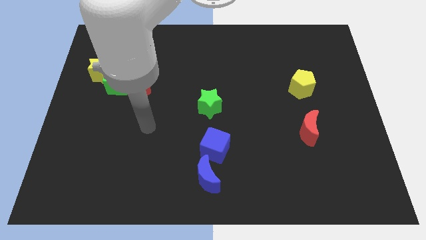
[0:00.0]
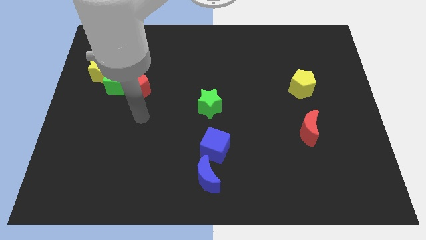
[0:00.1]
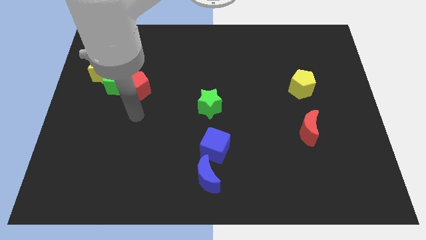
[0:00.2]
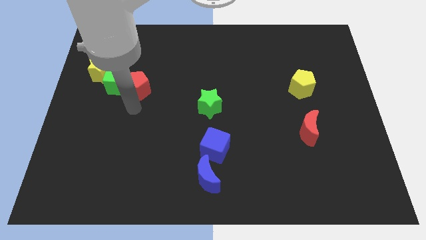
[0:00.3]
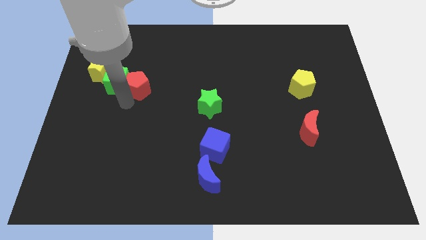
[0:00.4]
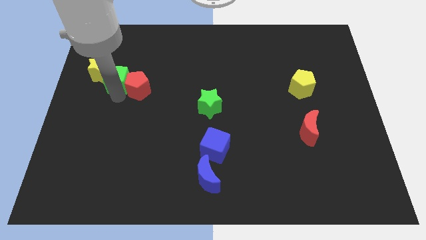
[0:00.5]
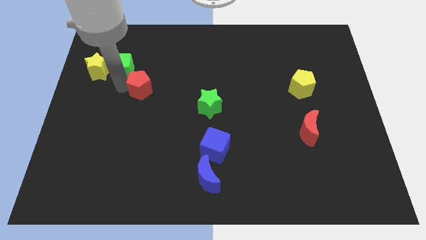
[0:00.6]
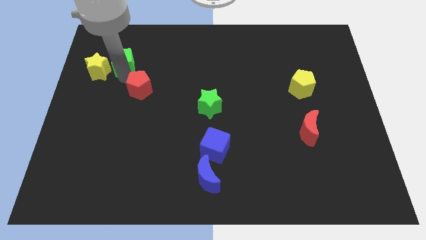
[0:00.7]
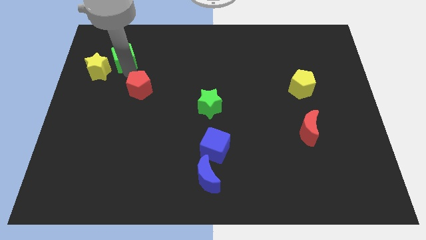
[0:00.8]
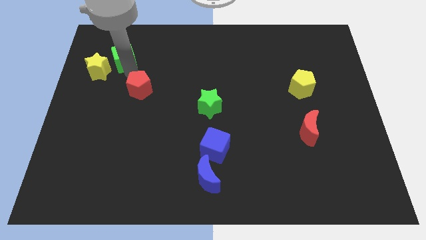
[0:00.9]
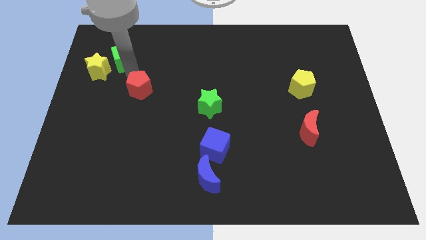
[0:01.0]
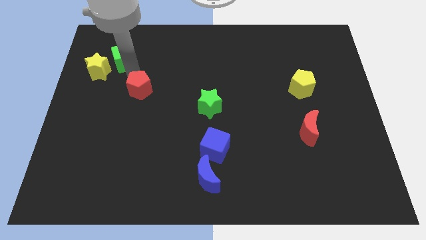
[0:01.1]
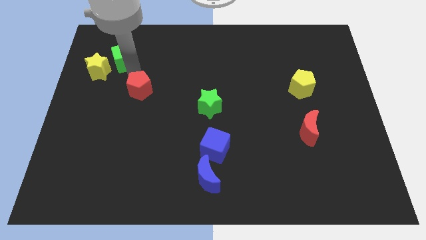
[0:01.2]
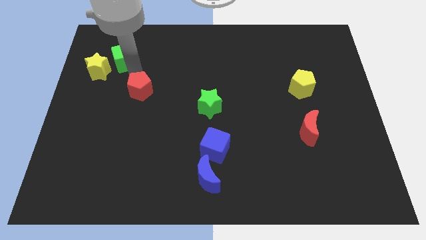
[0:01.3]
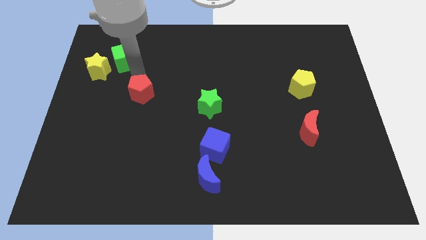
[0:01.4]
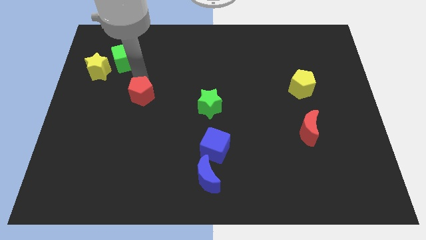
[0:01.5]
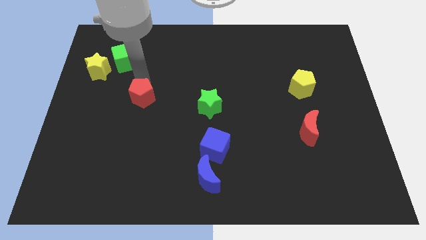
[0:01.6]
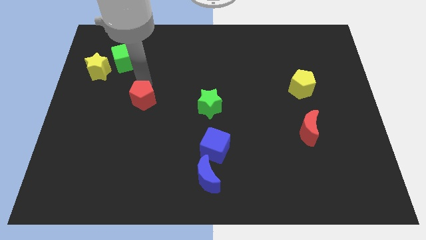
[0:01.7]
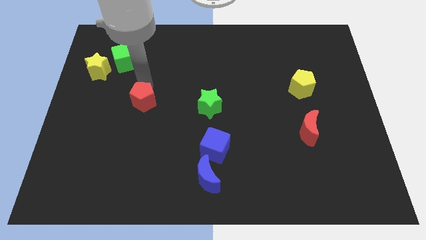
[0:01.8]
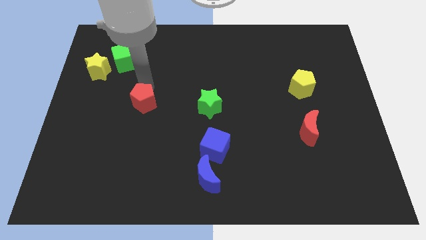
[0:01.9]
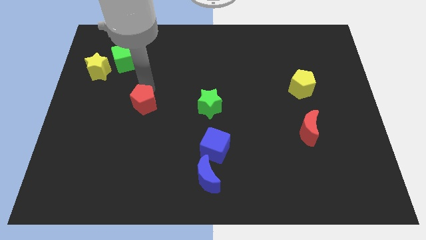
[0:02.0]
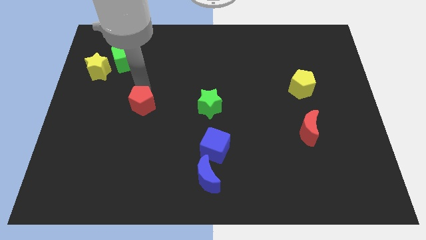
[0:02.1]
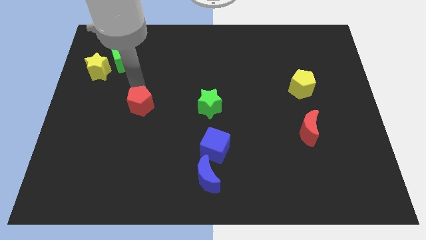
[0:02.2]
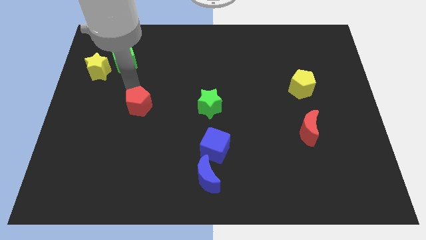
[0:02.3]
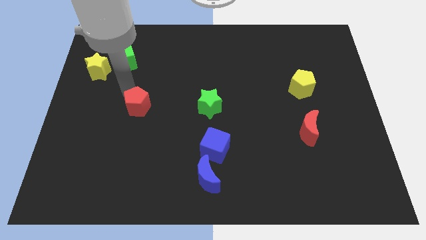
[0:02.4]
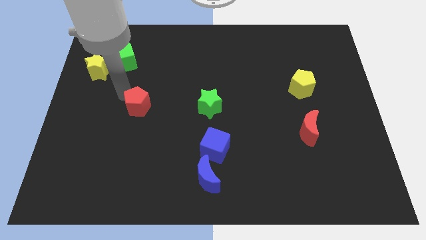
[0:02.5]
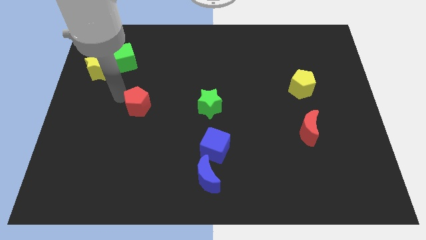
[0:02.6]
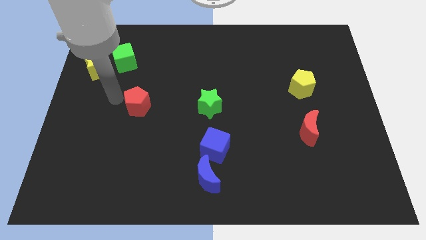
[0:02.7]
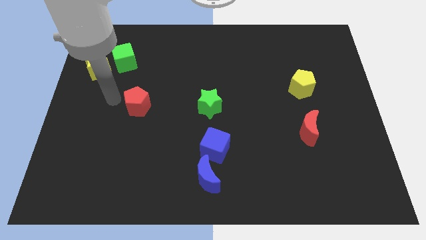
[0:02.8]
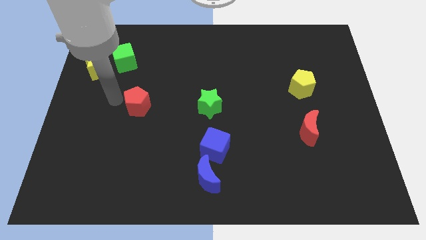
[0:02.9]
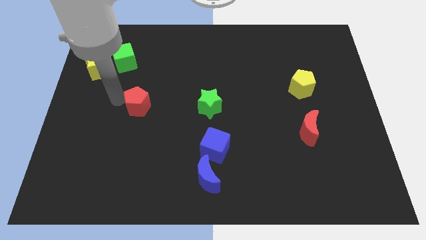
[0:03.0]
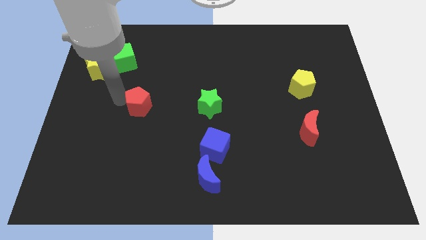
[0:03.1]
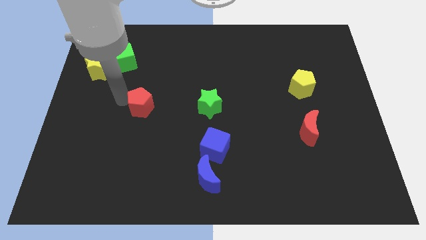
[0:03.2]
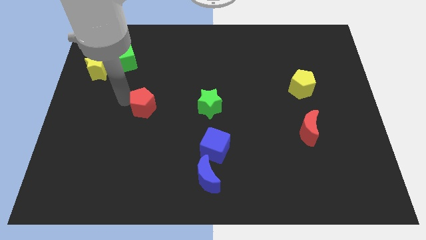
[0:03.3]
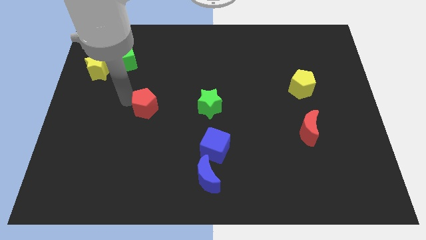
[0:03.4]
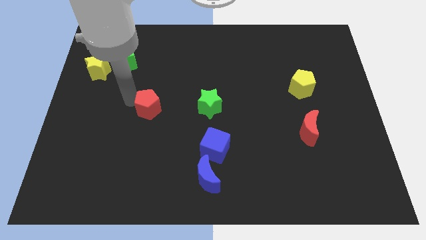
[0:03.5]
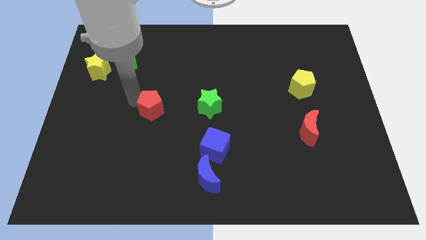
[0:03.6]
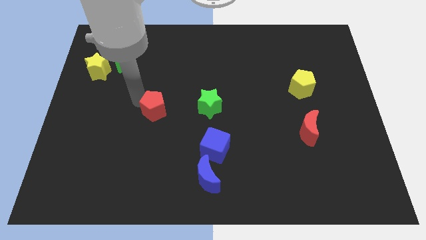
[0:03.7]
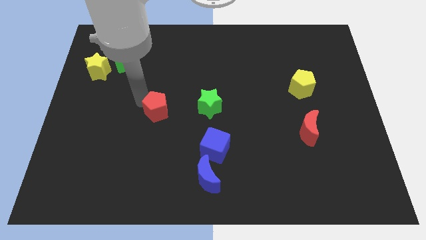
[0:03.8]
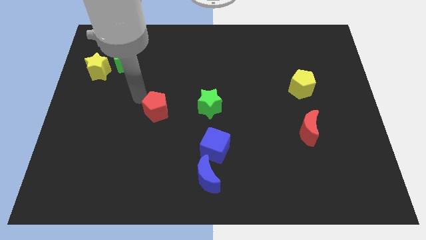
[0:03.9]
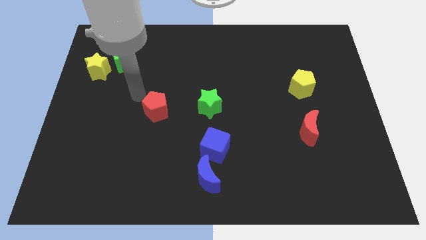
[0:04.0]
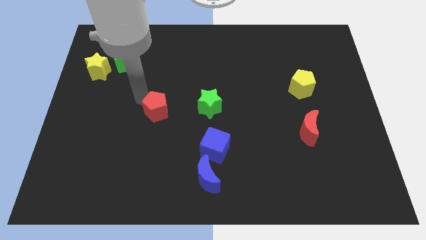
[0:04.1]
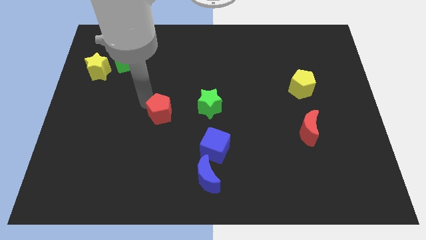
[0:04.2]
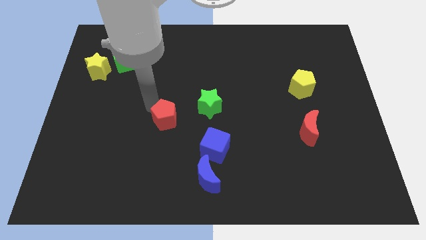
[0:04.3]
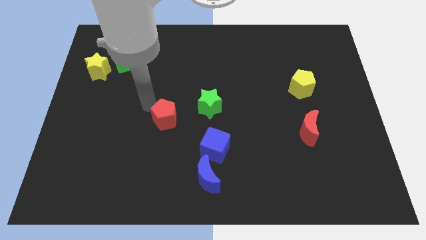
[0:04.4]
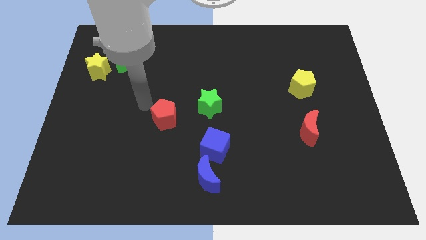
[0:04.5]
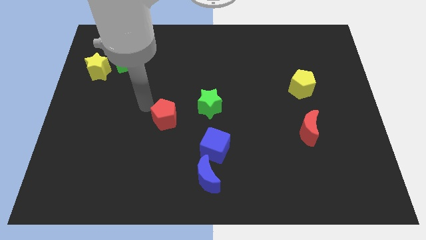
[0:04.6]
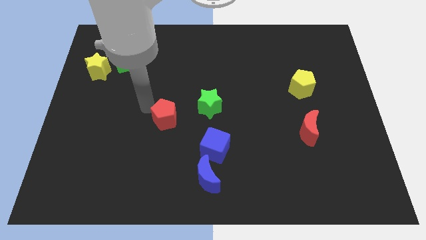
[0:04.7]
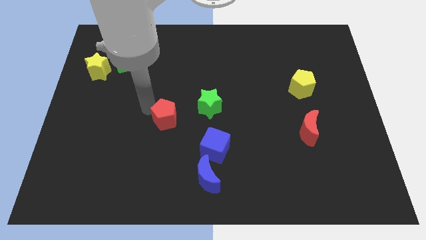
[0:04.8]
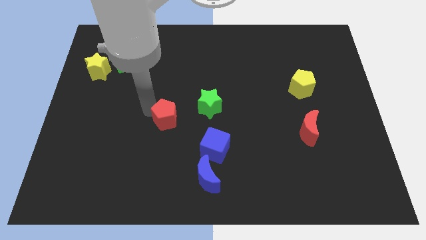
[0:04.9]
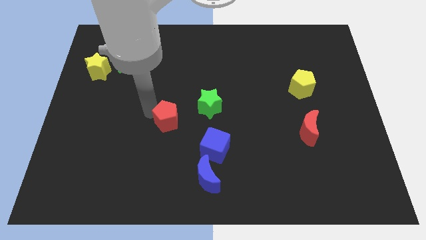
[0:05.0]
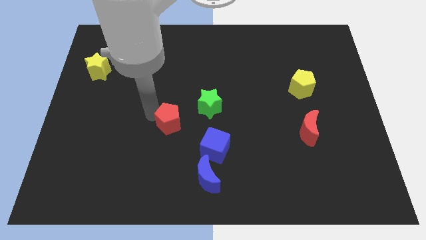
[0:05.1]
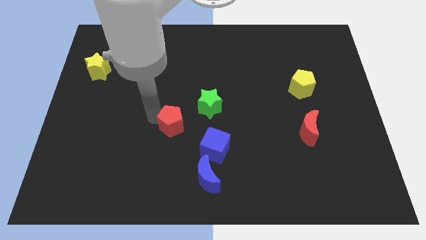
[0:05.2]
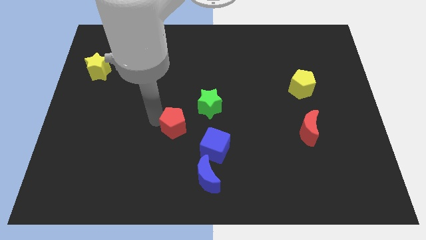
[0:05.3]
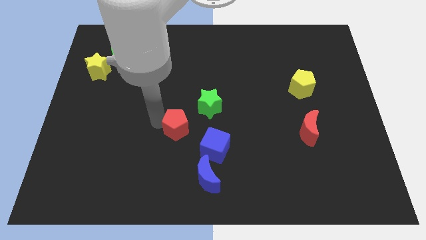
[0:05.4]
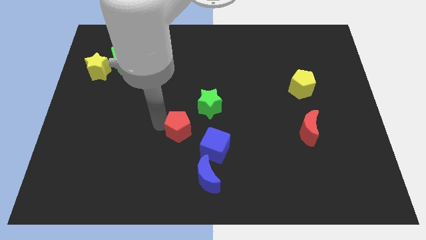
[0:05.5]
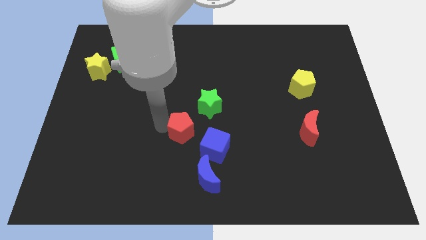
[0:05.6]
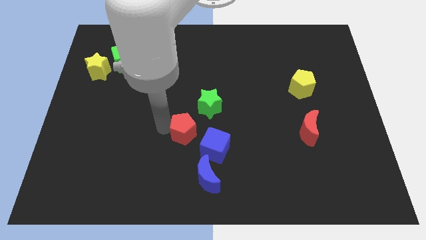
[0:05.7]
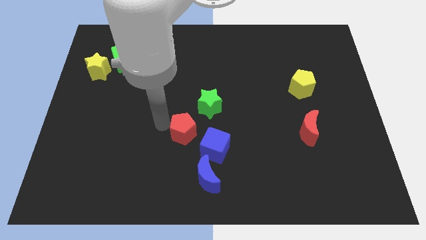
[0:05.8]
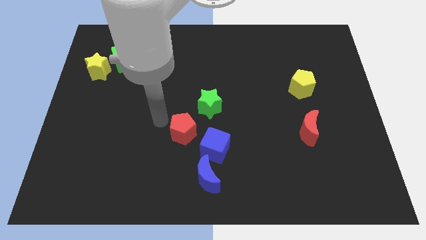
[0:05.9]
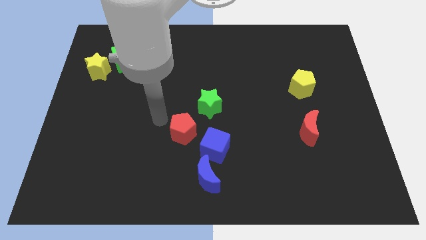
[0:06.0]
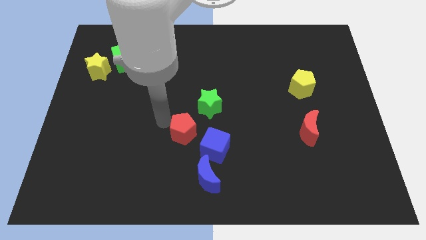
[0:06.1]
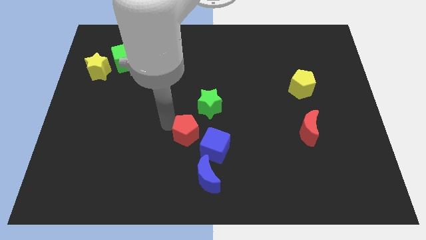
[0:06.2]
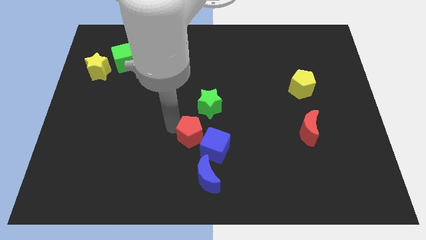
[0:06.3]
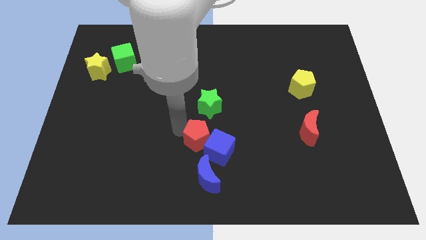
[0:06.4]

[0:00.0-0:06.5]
slide the red pentagon to the blue cube

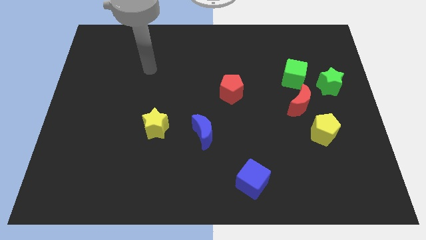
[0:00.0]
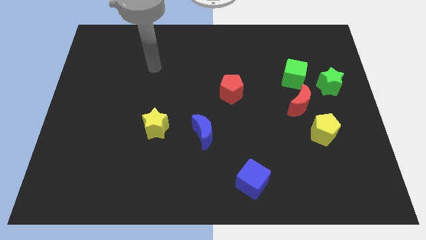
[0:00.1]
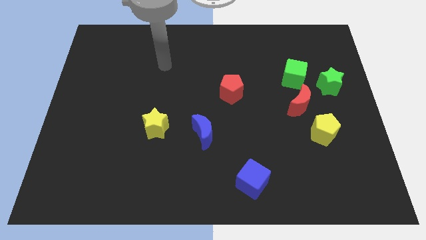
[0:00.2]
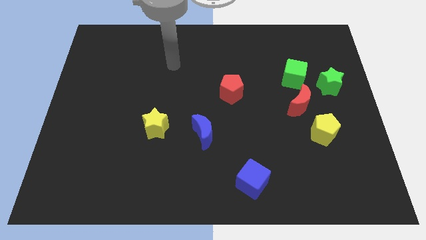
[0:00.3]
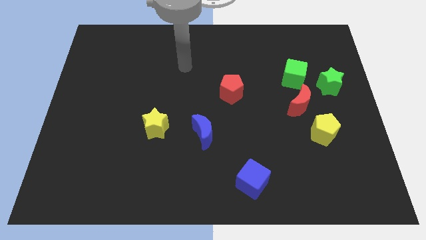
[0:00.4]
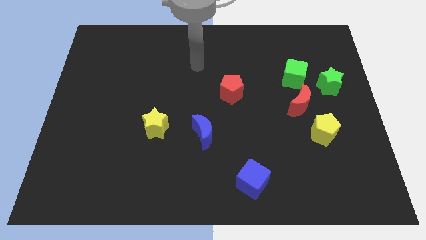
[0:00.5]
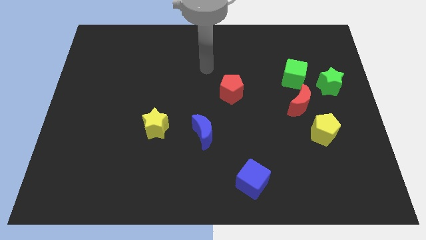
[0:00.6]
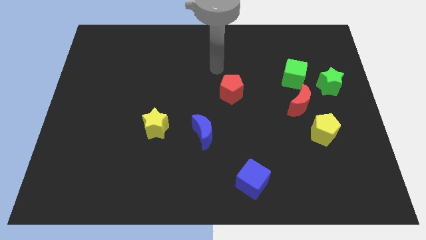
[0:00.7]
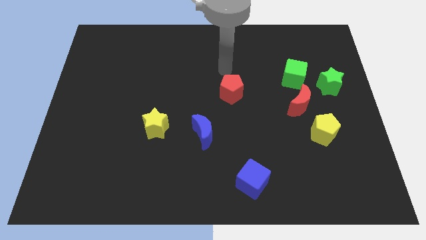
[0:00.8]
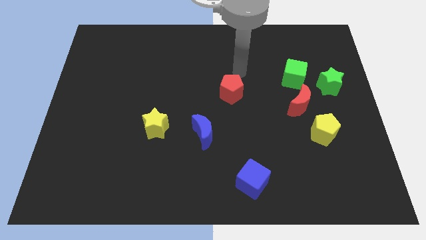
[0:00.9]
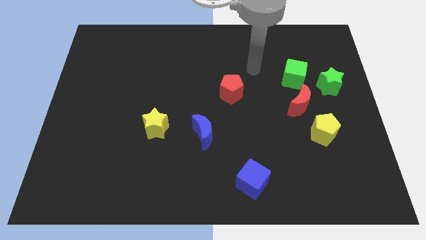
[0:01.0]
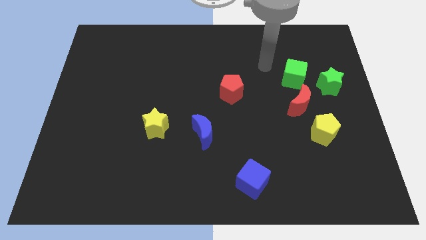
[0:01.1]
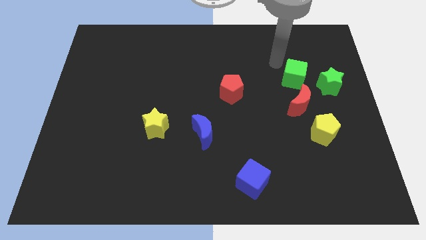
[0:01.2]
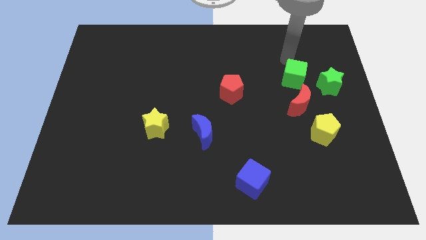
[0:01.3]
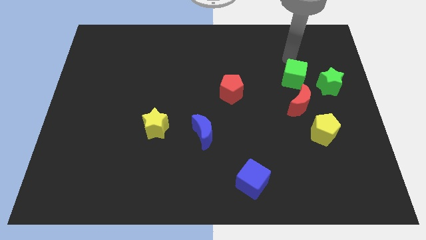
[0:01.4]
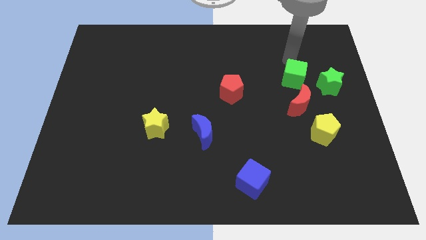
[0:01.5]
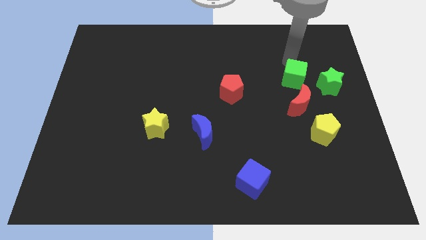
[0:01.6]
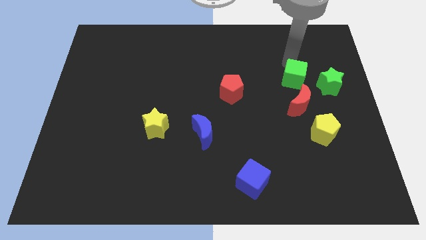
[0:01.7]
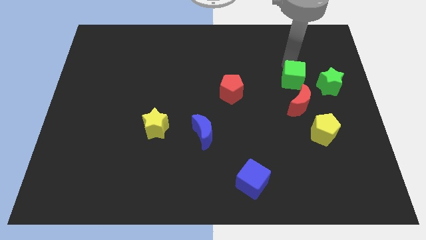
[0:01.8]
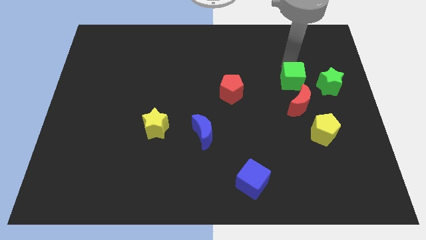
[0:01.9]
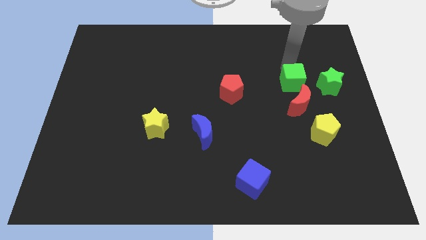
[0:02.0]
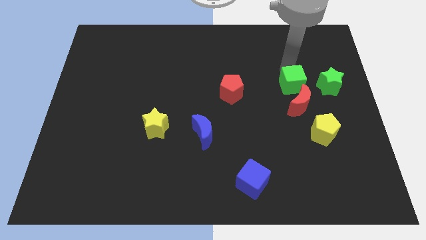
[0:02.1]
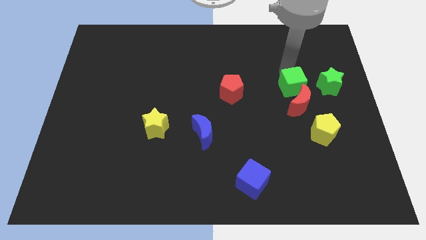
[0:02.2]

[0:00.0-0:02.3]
slide the green cube to the red moon
